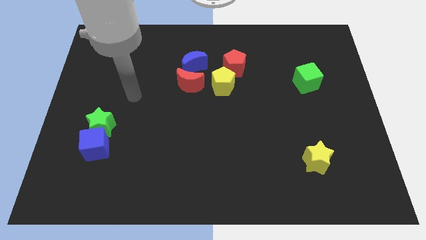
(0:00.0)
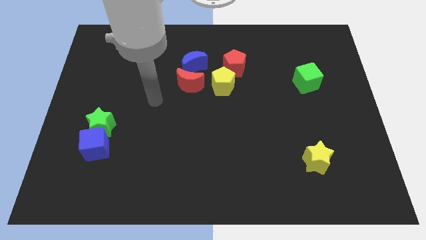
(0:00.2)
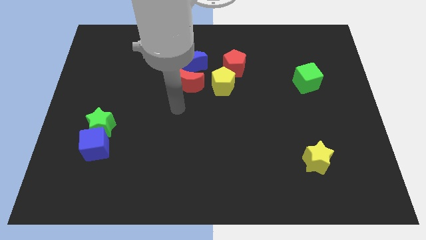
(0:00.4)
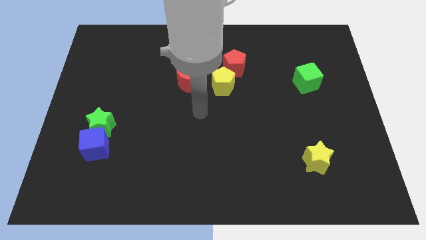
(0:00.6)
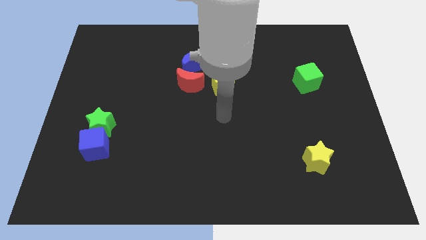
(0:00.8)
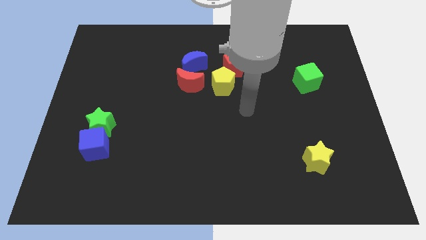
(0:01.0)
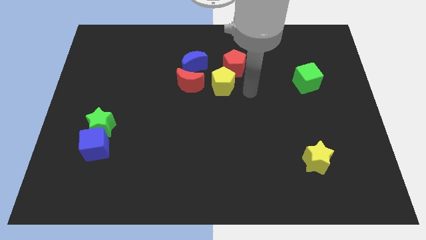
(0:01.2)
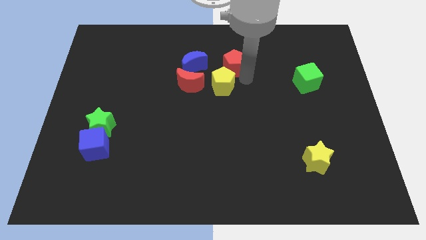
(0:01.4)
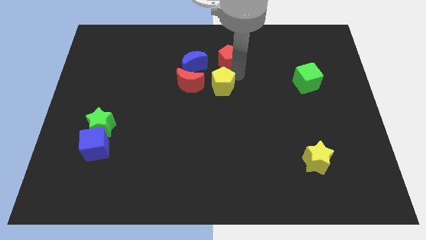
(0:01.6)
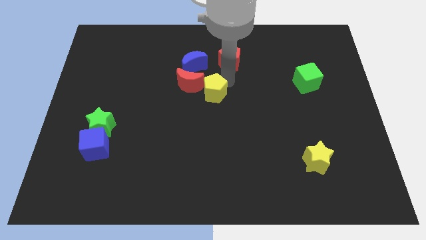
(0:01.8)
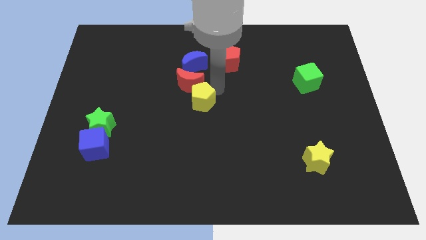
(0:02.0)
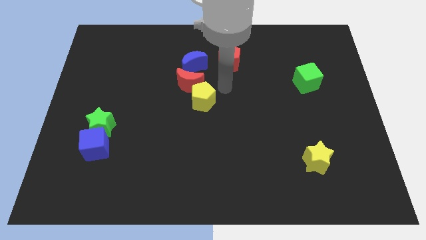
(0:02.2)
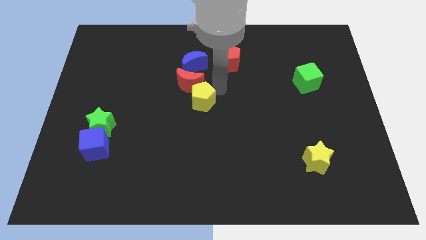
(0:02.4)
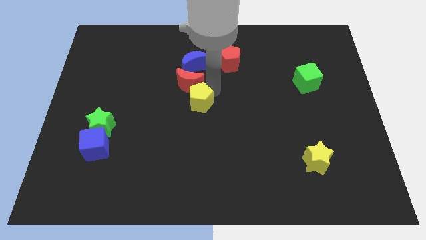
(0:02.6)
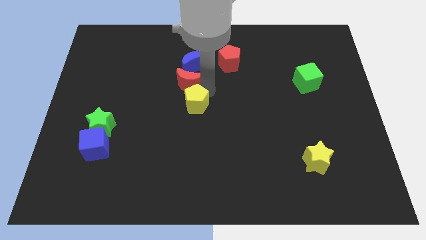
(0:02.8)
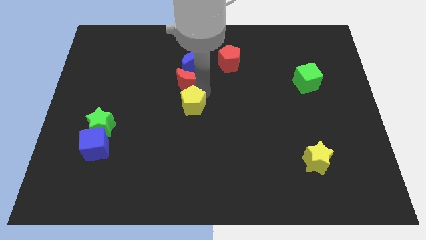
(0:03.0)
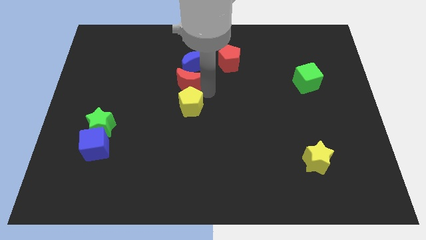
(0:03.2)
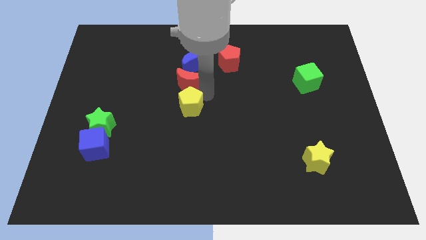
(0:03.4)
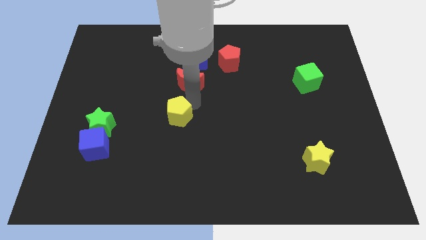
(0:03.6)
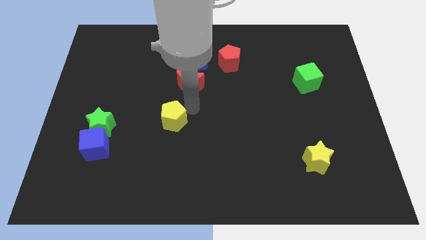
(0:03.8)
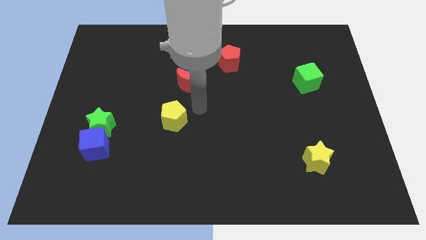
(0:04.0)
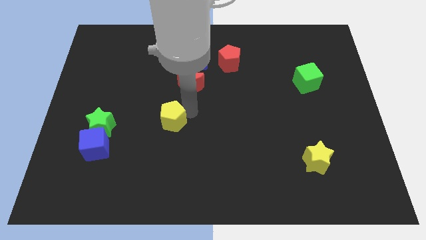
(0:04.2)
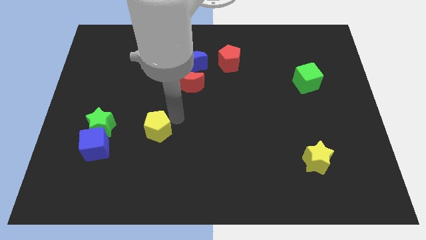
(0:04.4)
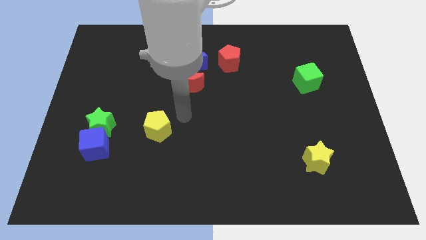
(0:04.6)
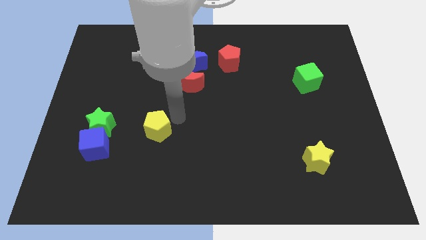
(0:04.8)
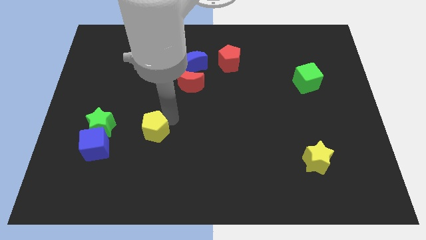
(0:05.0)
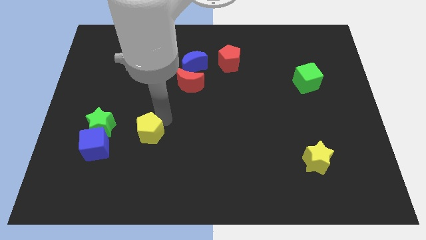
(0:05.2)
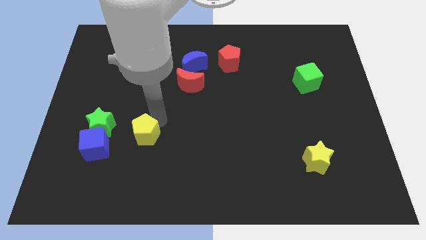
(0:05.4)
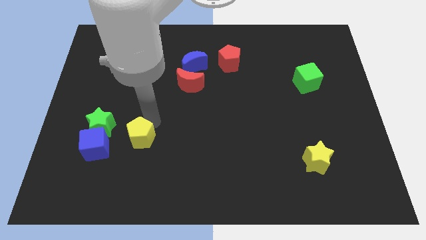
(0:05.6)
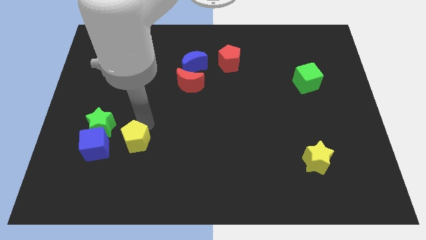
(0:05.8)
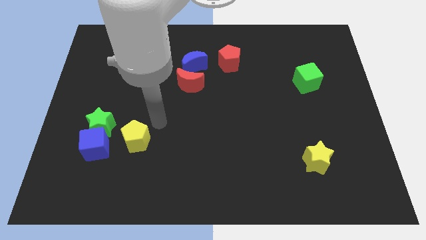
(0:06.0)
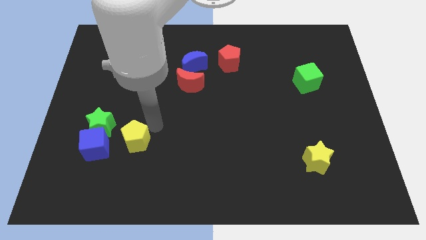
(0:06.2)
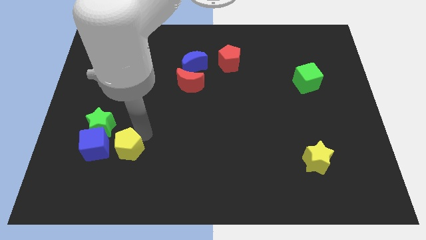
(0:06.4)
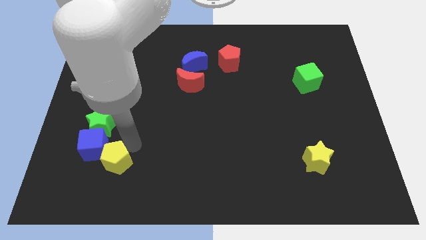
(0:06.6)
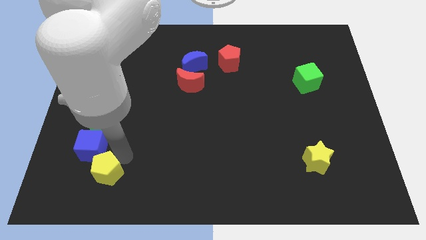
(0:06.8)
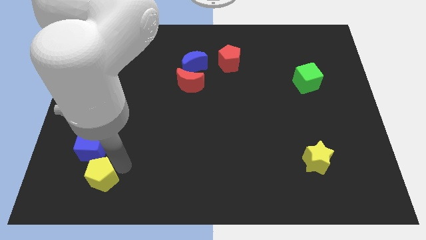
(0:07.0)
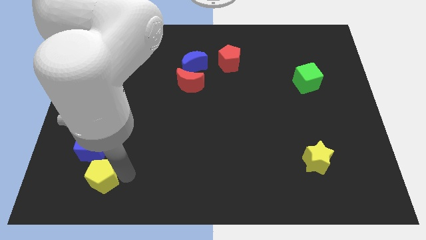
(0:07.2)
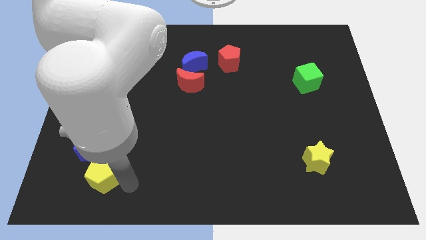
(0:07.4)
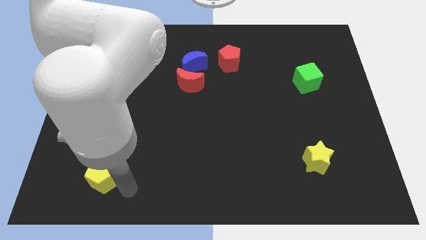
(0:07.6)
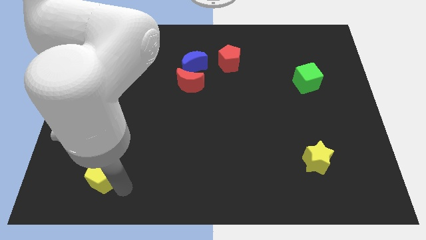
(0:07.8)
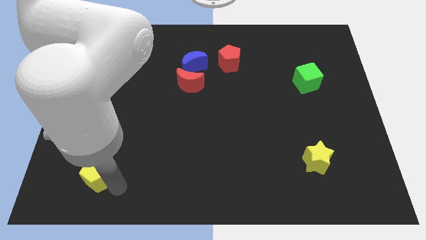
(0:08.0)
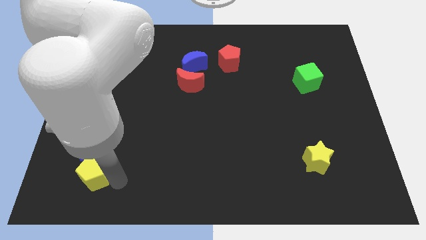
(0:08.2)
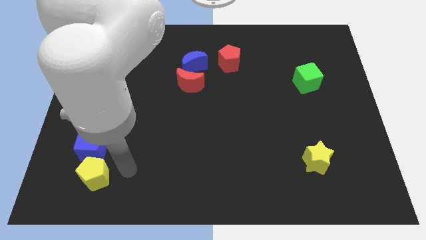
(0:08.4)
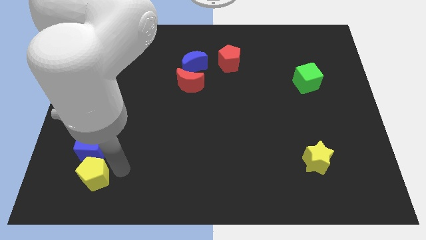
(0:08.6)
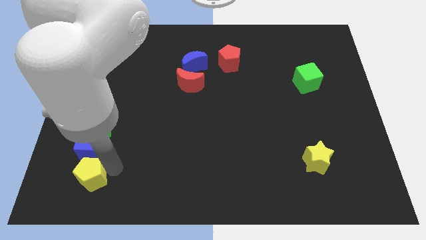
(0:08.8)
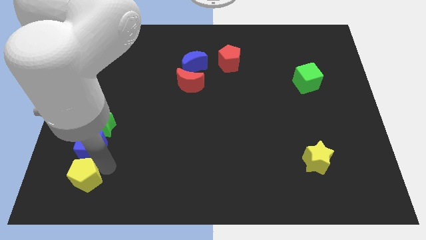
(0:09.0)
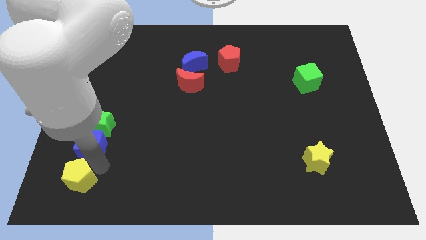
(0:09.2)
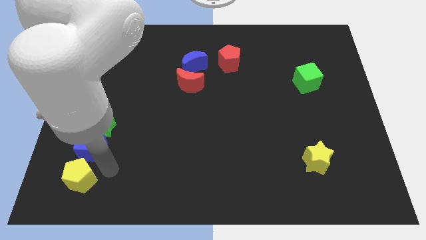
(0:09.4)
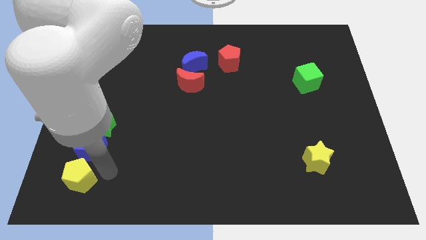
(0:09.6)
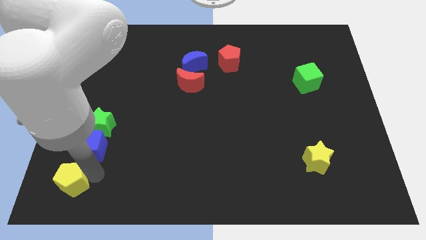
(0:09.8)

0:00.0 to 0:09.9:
push the yellow pentagon to the bottom left

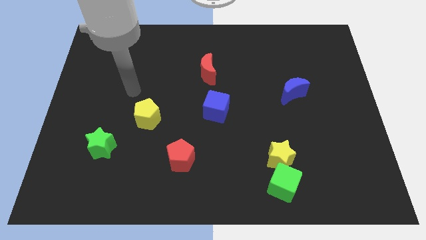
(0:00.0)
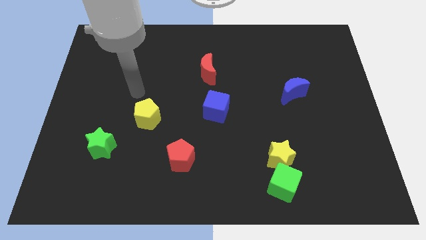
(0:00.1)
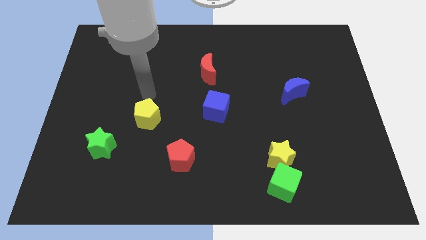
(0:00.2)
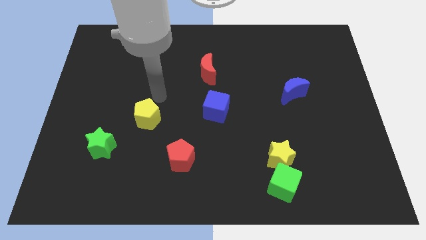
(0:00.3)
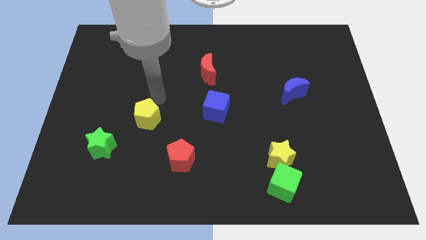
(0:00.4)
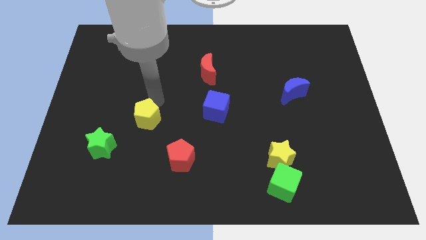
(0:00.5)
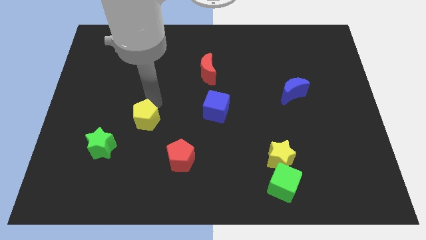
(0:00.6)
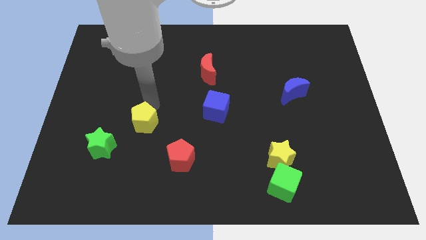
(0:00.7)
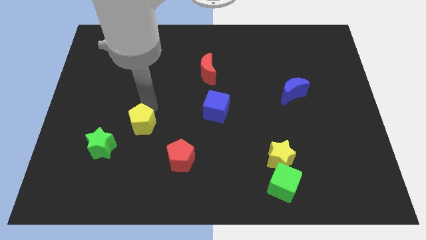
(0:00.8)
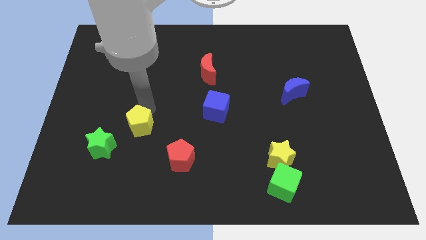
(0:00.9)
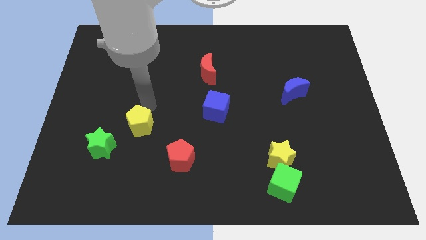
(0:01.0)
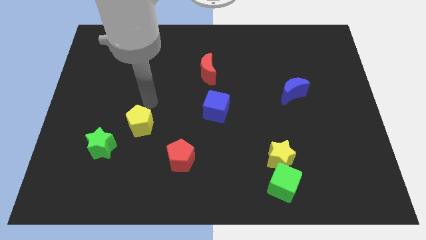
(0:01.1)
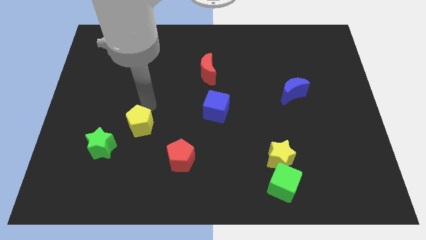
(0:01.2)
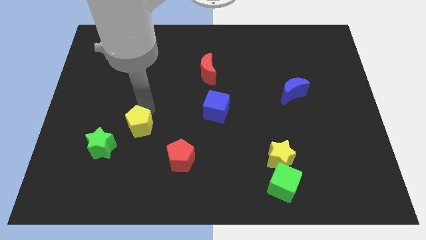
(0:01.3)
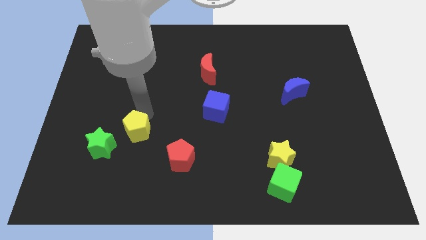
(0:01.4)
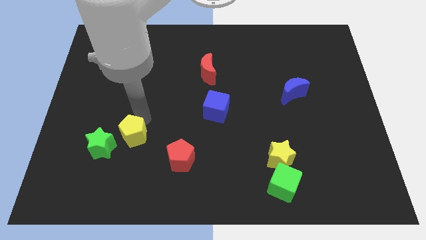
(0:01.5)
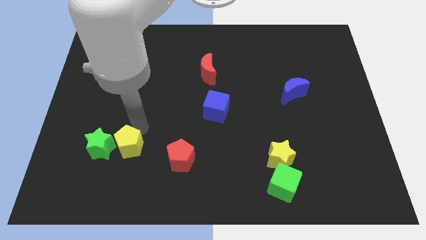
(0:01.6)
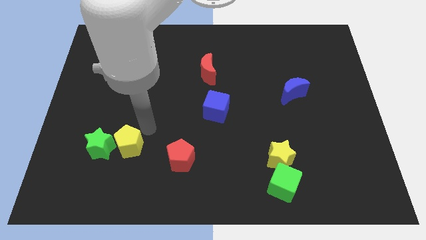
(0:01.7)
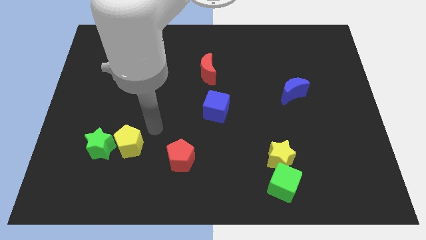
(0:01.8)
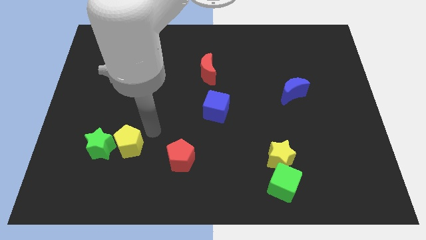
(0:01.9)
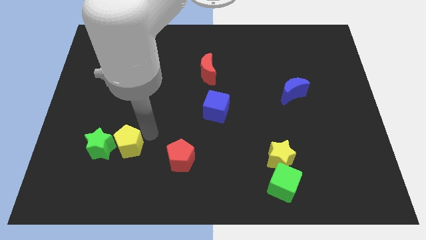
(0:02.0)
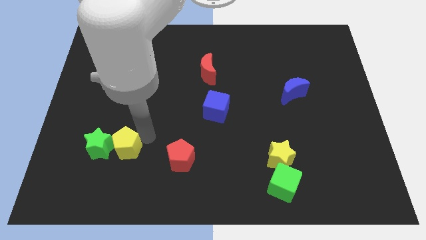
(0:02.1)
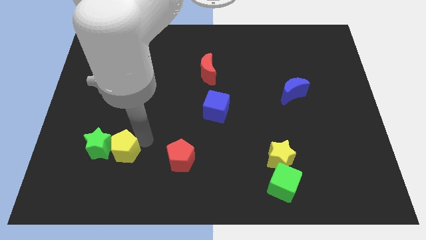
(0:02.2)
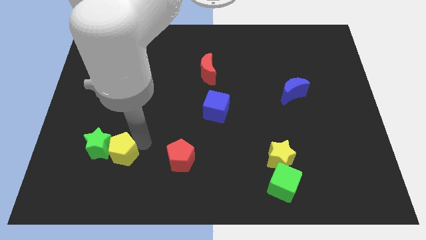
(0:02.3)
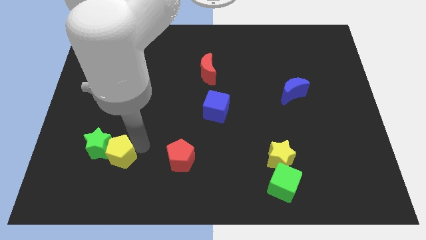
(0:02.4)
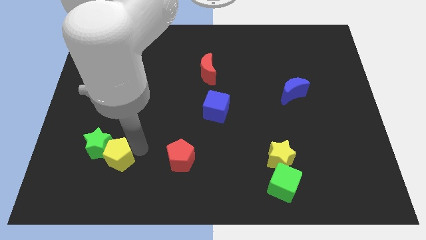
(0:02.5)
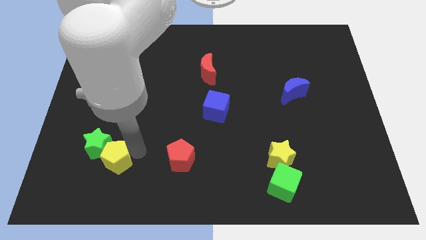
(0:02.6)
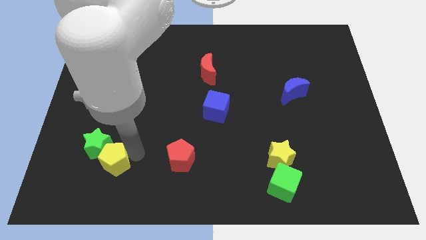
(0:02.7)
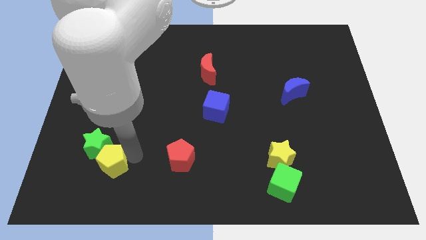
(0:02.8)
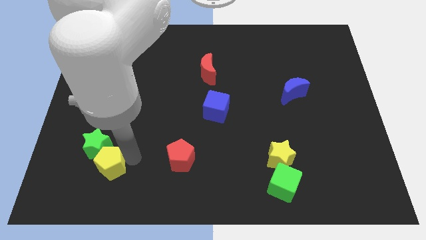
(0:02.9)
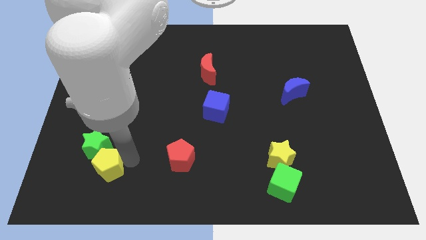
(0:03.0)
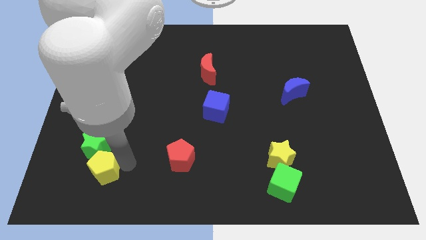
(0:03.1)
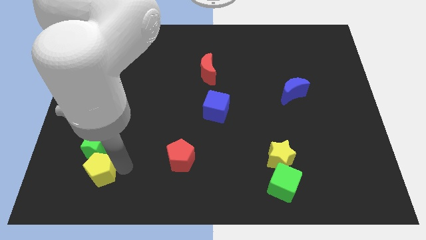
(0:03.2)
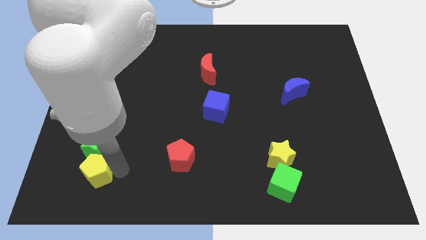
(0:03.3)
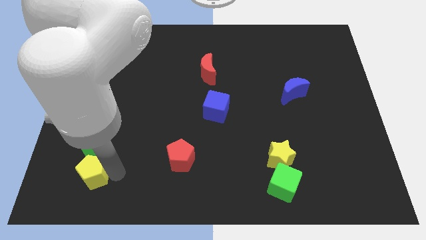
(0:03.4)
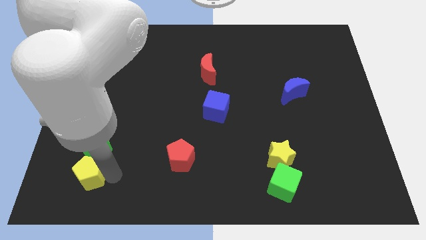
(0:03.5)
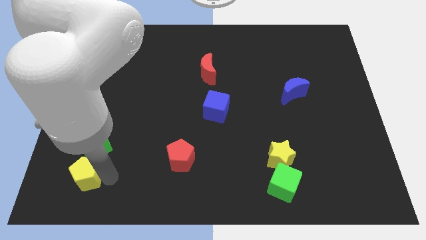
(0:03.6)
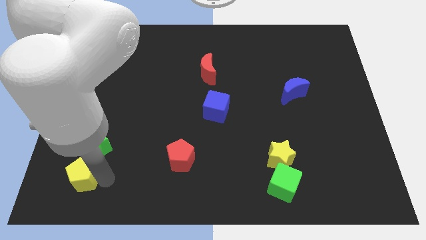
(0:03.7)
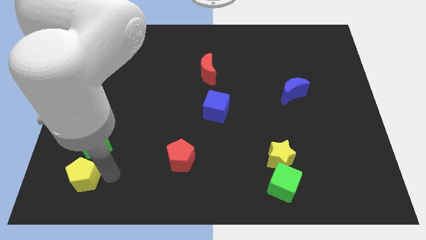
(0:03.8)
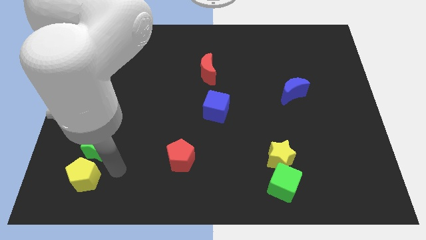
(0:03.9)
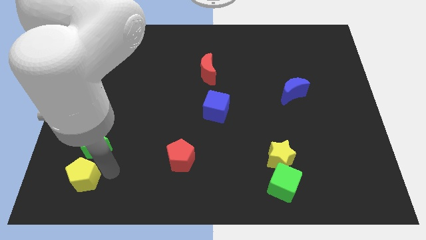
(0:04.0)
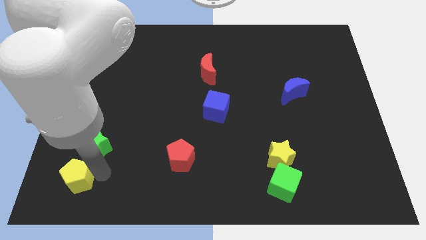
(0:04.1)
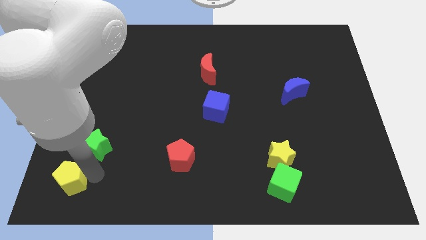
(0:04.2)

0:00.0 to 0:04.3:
put the yellow pentagon to the bottom left corner
